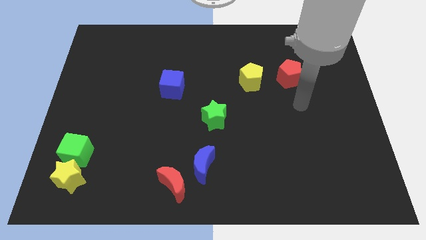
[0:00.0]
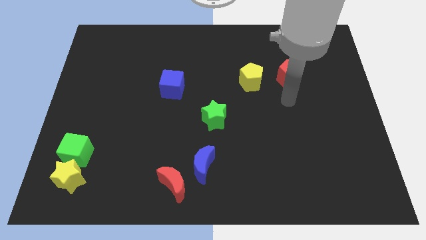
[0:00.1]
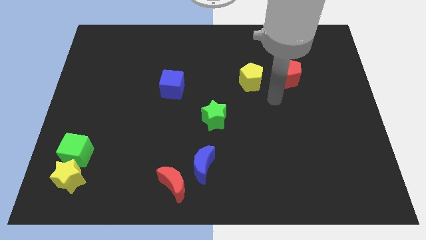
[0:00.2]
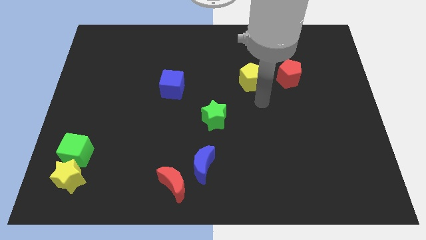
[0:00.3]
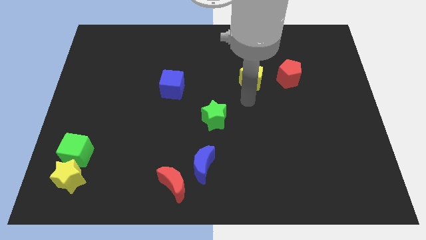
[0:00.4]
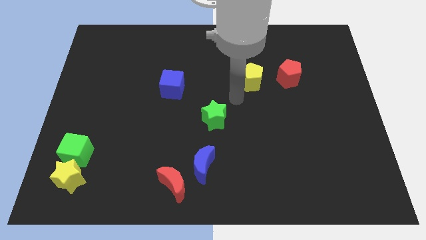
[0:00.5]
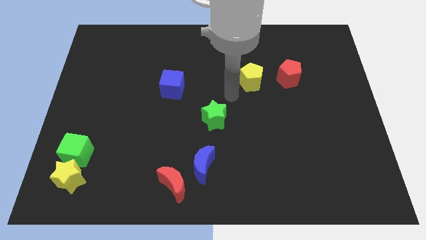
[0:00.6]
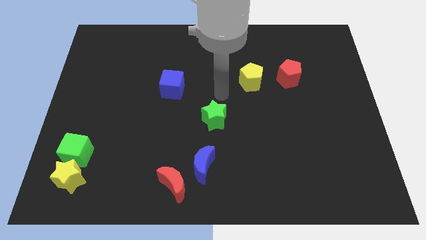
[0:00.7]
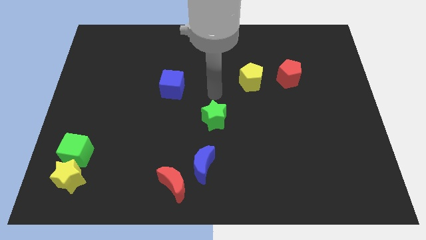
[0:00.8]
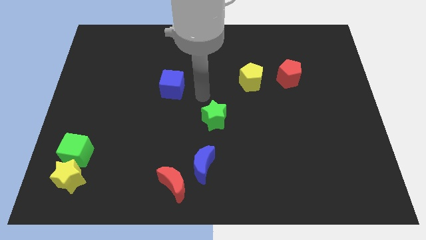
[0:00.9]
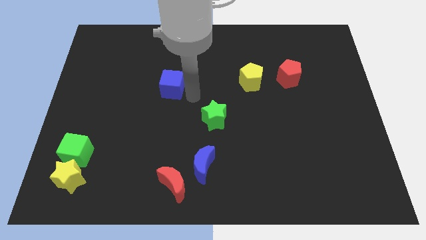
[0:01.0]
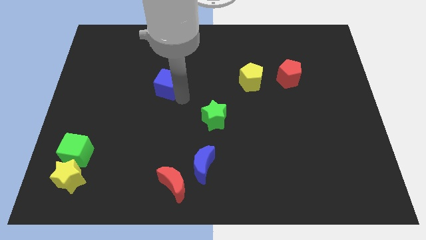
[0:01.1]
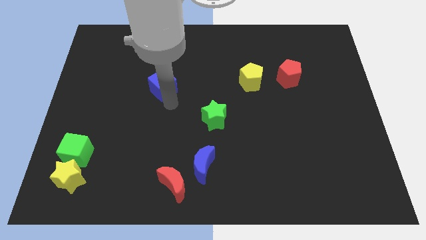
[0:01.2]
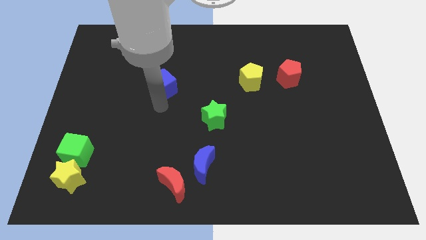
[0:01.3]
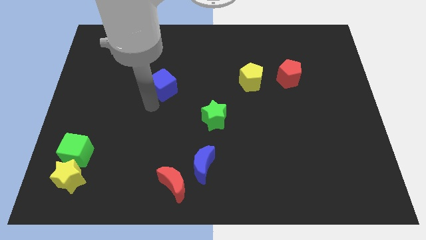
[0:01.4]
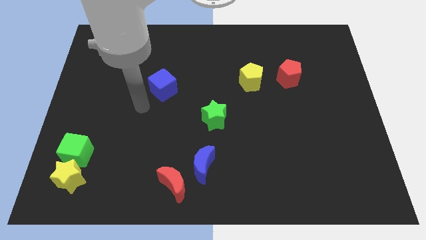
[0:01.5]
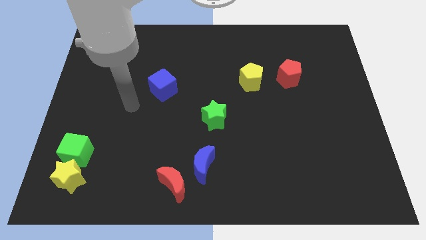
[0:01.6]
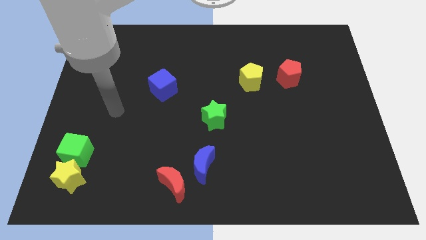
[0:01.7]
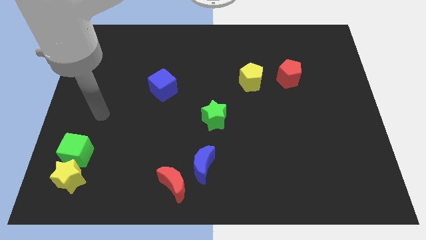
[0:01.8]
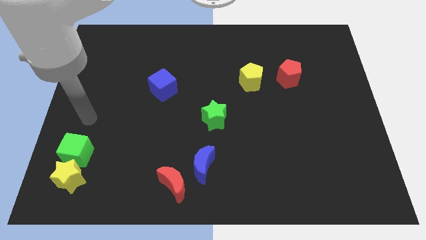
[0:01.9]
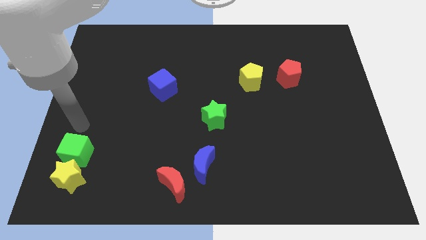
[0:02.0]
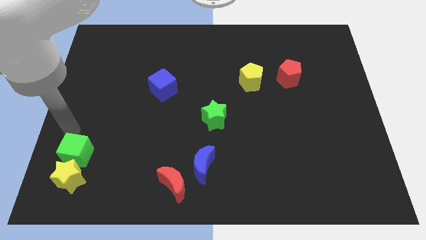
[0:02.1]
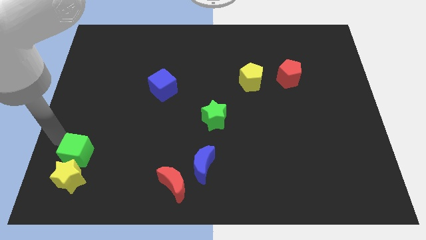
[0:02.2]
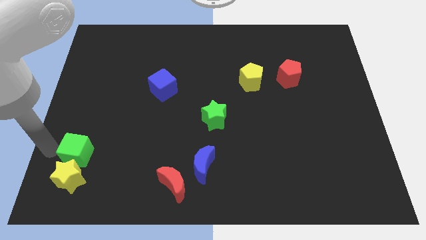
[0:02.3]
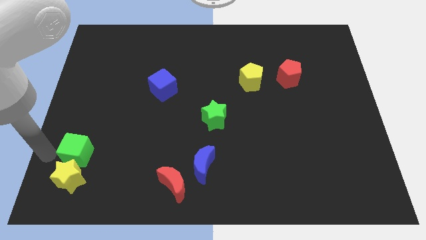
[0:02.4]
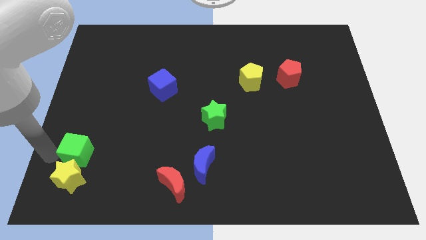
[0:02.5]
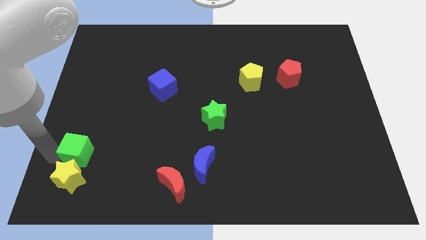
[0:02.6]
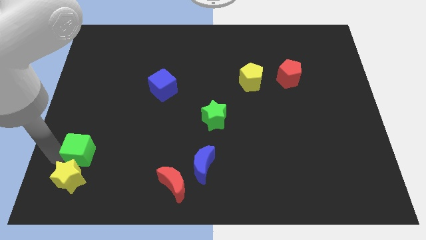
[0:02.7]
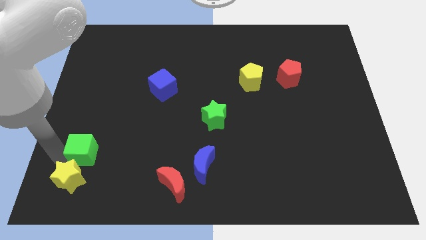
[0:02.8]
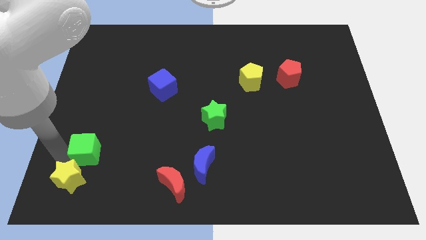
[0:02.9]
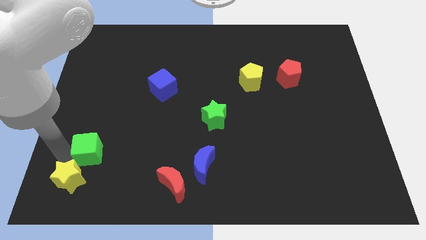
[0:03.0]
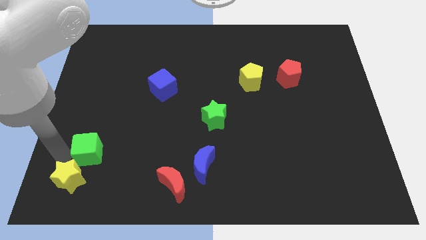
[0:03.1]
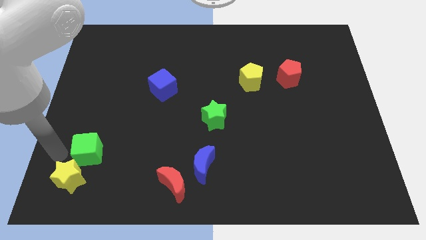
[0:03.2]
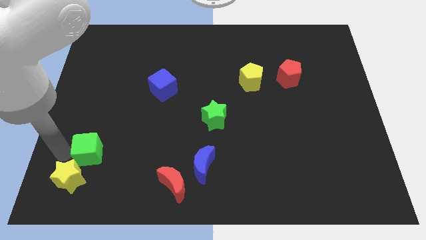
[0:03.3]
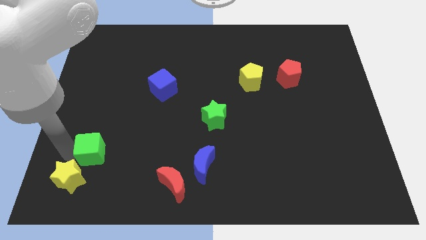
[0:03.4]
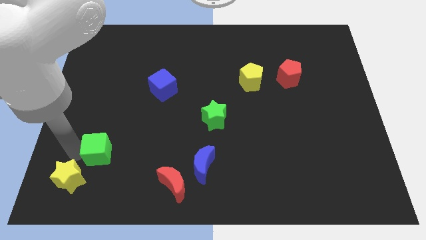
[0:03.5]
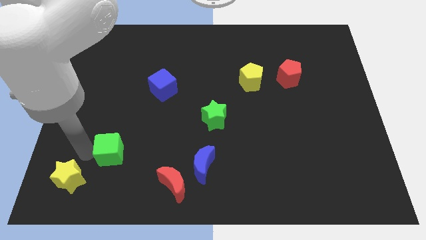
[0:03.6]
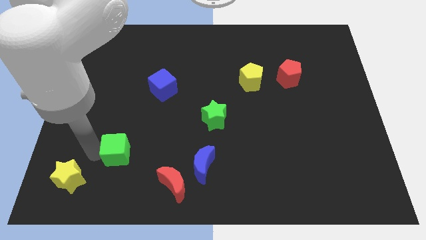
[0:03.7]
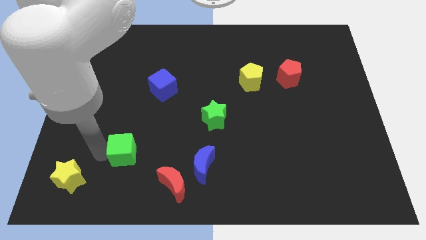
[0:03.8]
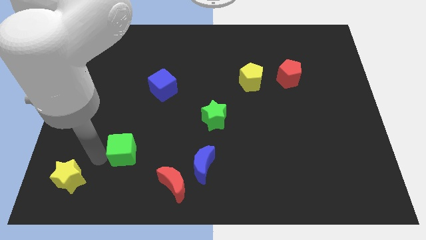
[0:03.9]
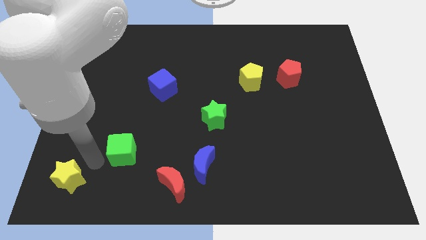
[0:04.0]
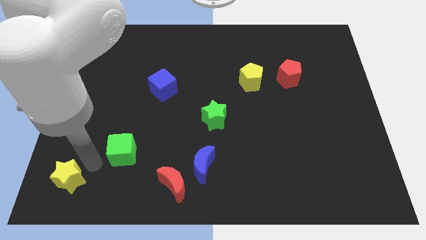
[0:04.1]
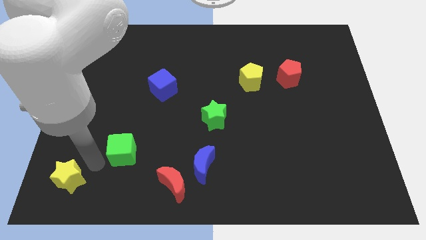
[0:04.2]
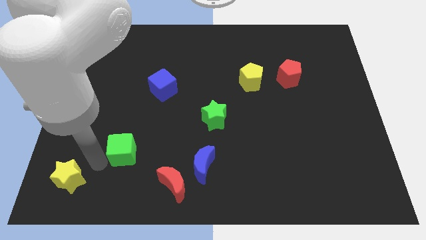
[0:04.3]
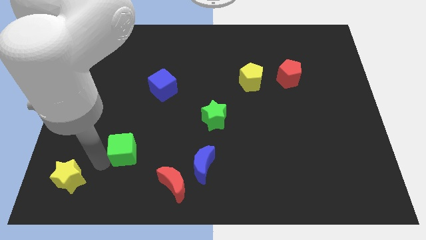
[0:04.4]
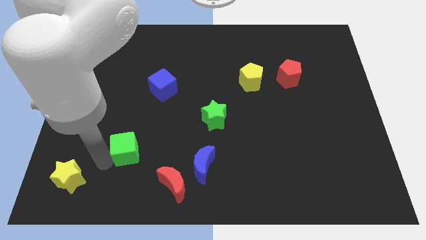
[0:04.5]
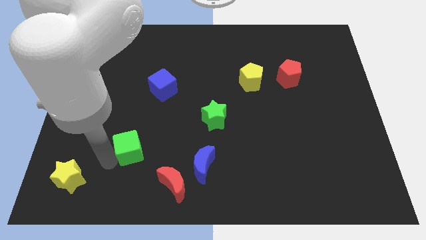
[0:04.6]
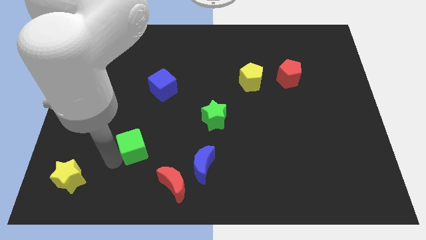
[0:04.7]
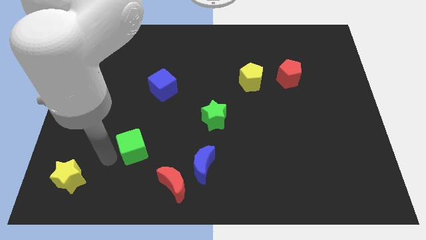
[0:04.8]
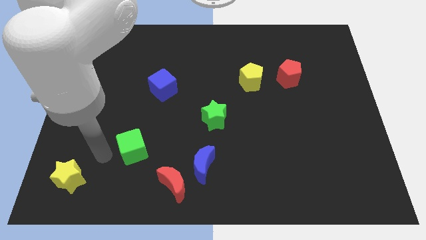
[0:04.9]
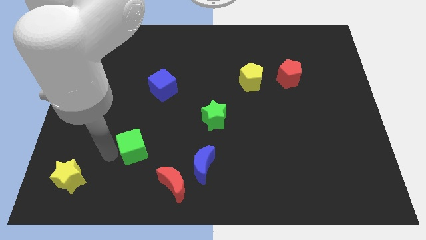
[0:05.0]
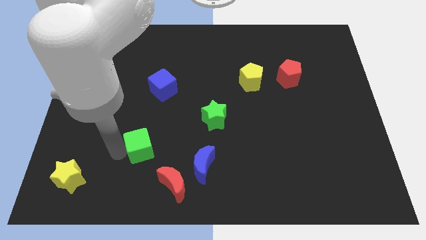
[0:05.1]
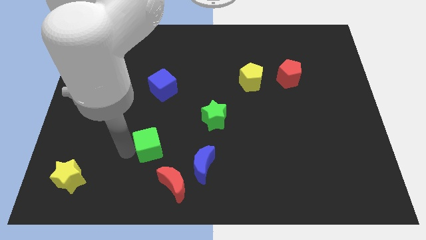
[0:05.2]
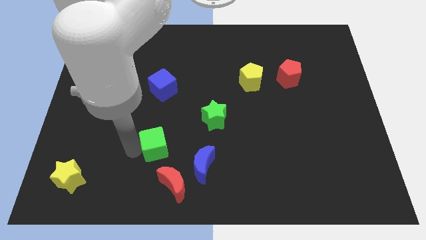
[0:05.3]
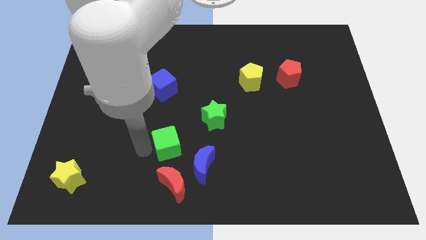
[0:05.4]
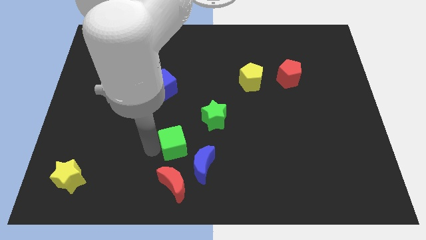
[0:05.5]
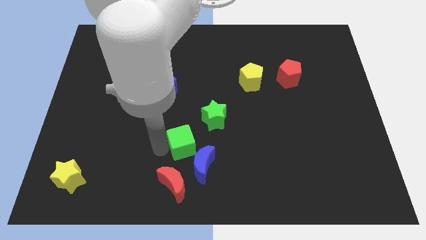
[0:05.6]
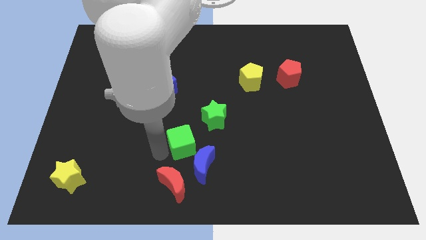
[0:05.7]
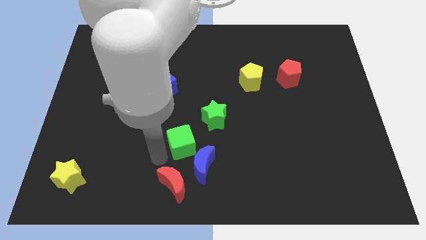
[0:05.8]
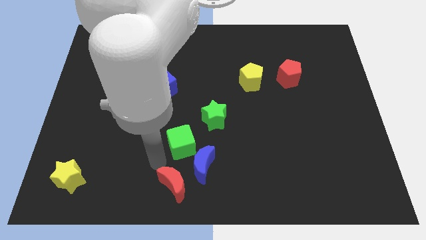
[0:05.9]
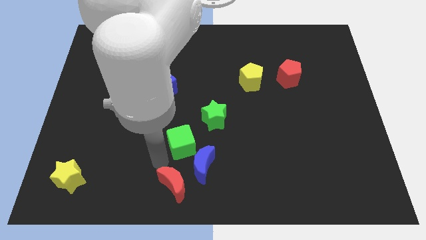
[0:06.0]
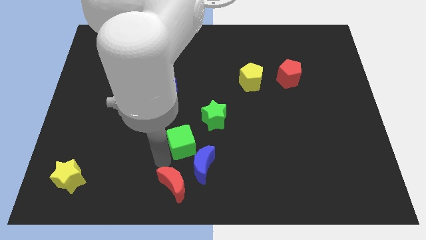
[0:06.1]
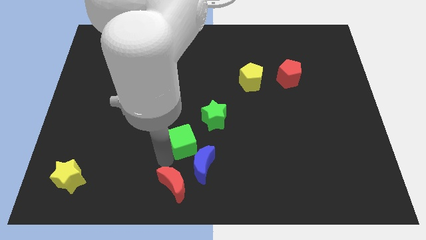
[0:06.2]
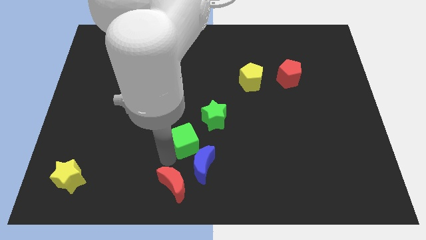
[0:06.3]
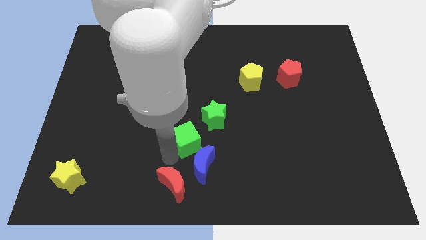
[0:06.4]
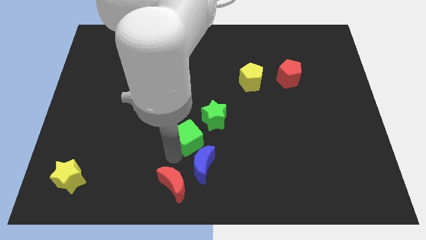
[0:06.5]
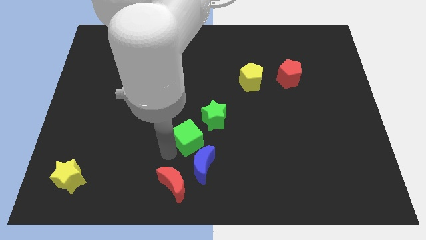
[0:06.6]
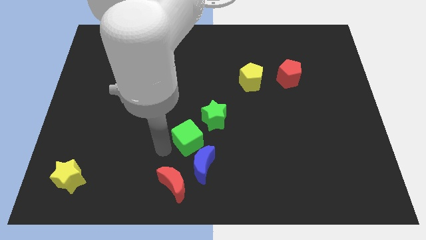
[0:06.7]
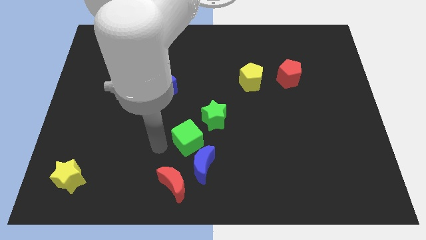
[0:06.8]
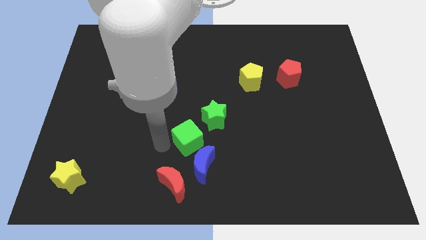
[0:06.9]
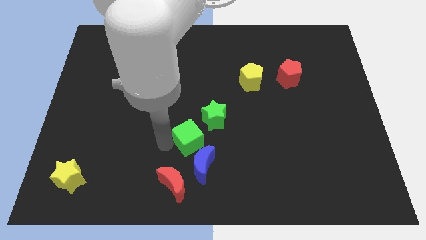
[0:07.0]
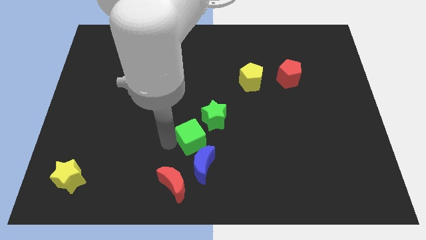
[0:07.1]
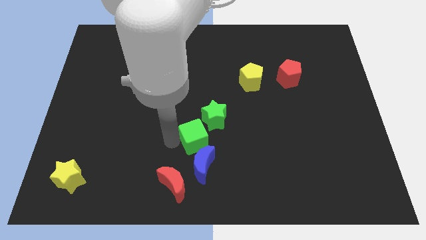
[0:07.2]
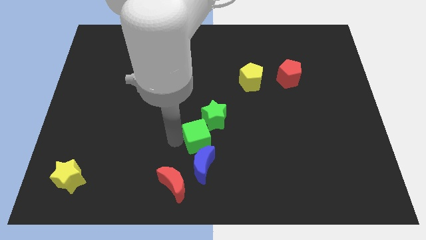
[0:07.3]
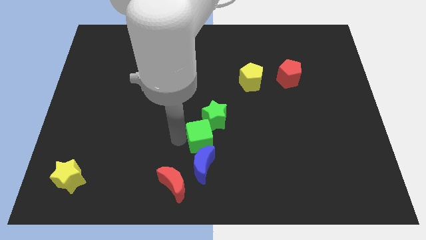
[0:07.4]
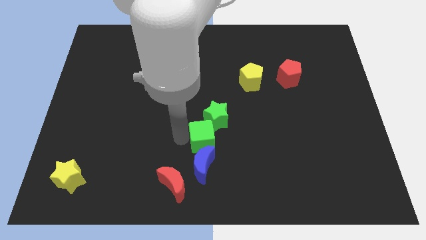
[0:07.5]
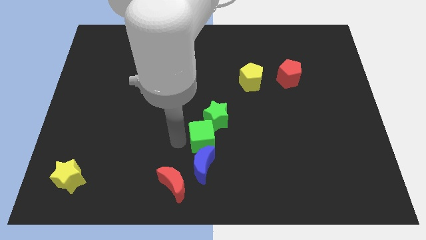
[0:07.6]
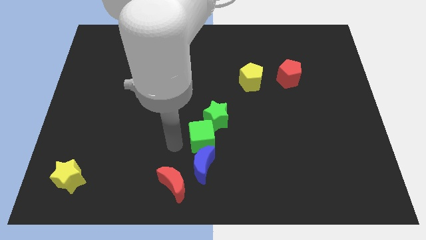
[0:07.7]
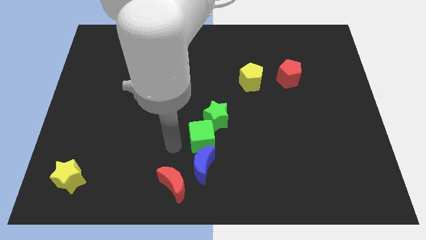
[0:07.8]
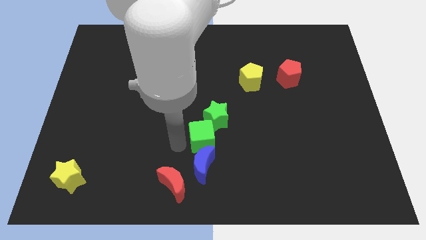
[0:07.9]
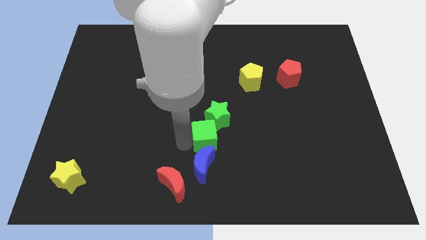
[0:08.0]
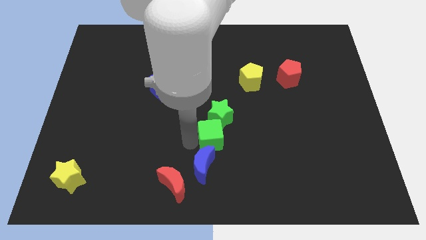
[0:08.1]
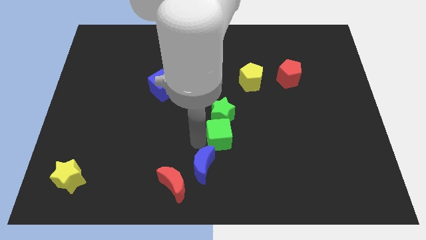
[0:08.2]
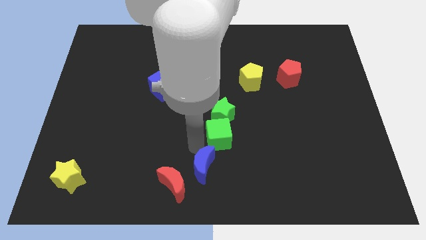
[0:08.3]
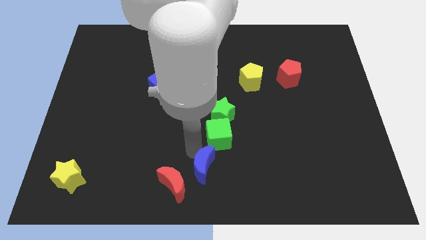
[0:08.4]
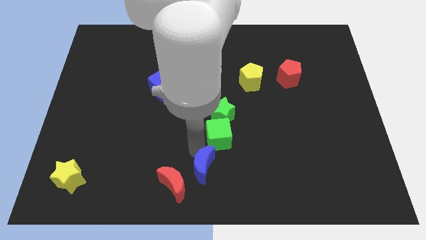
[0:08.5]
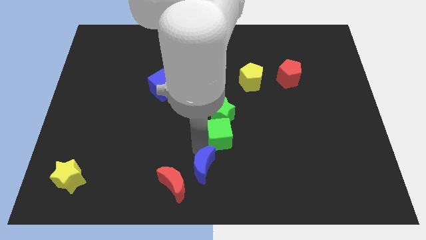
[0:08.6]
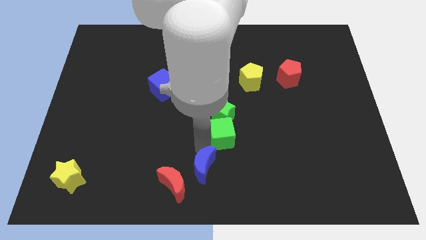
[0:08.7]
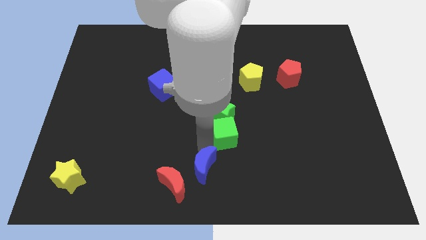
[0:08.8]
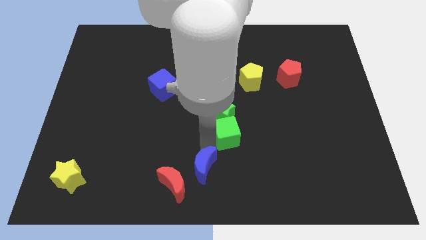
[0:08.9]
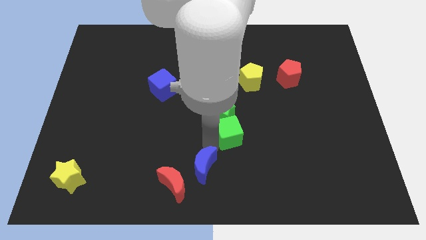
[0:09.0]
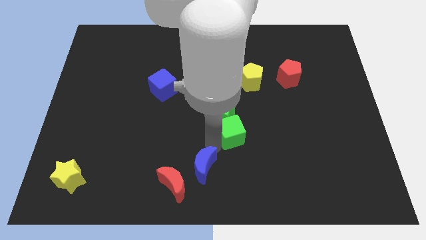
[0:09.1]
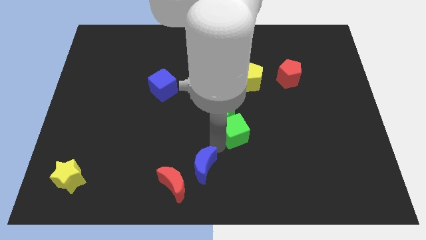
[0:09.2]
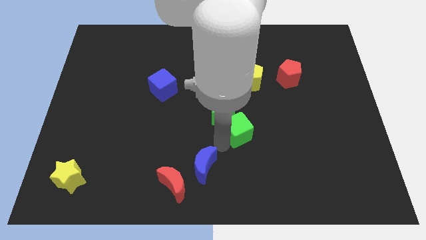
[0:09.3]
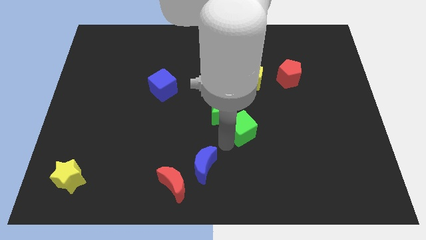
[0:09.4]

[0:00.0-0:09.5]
move the green cube right of the green star
